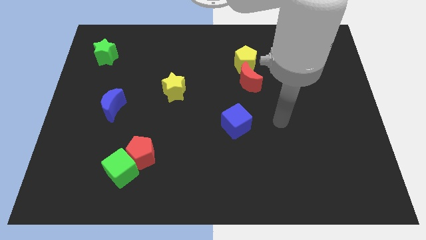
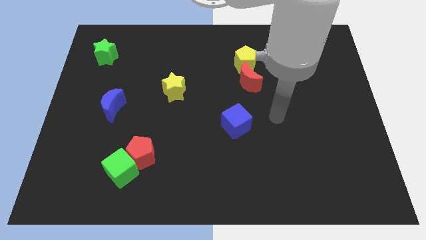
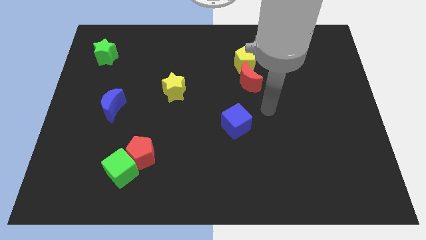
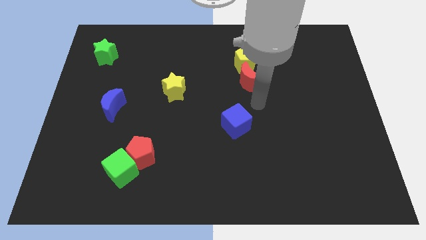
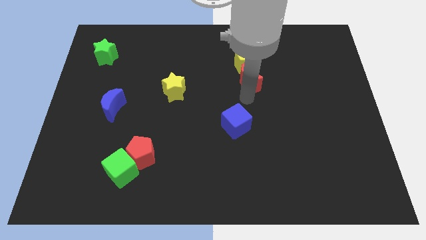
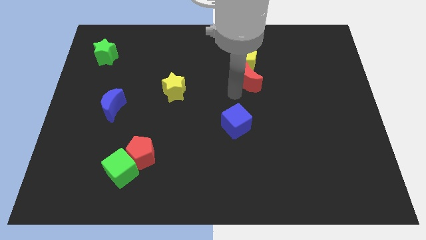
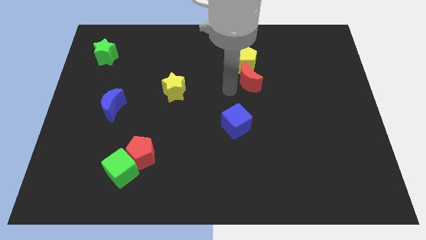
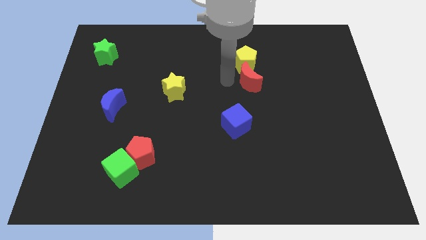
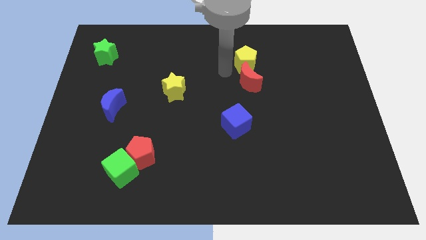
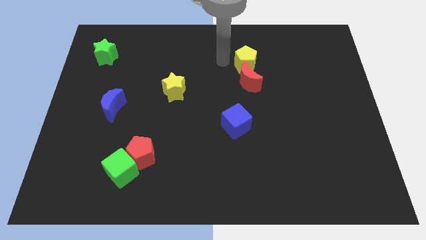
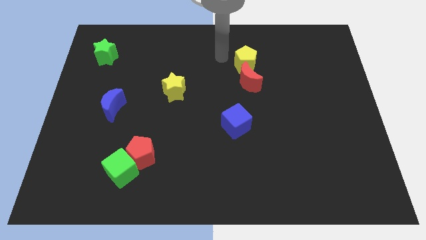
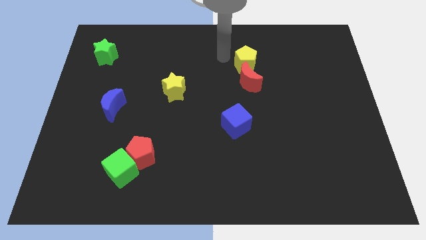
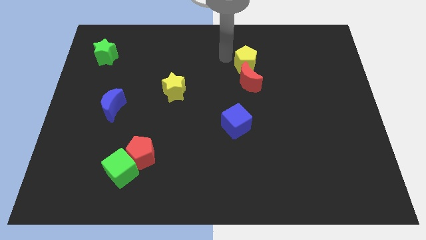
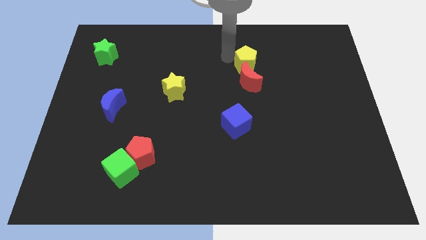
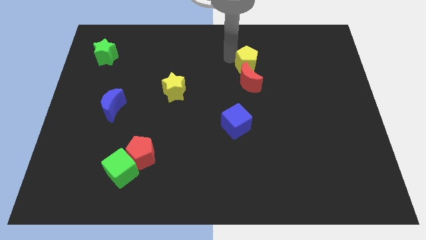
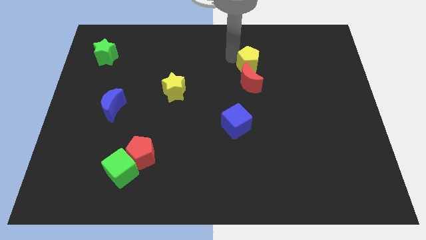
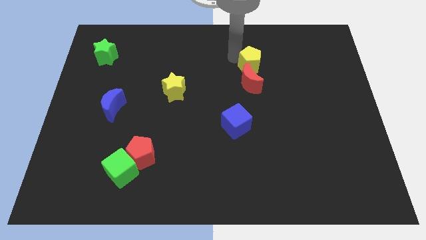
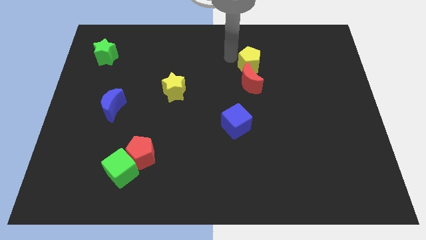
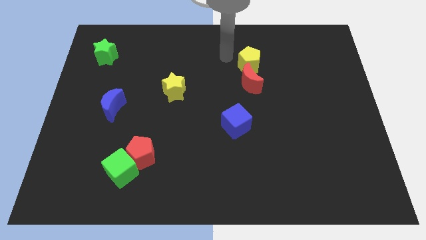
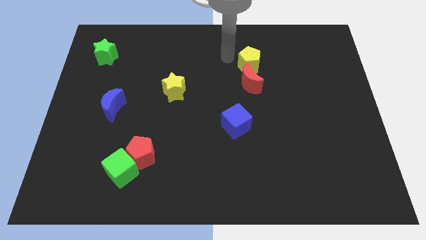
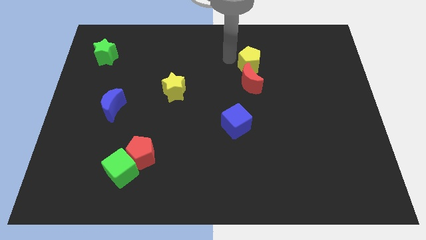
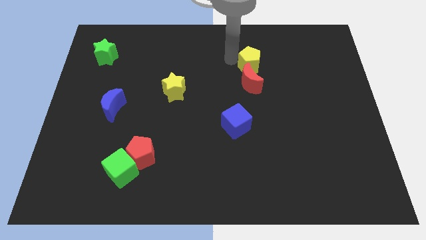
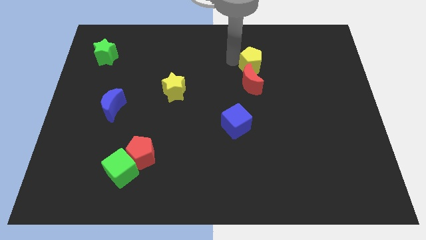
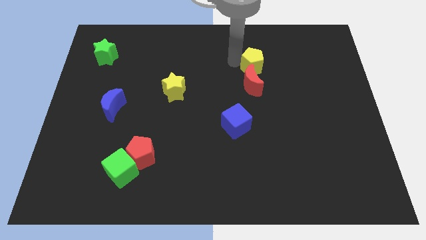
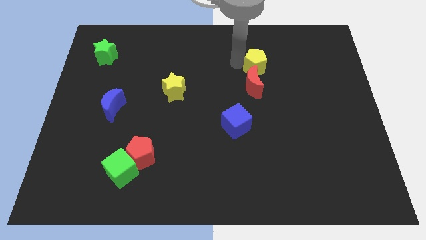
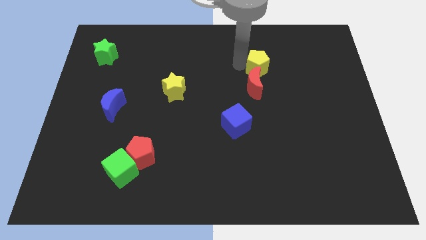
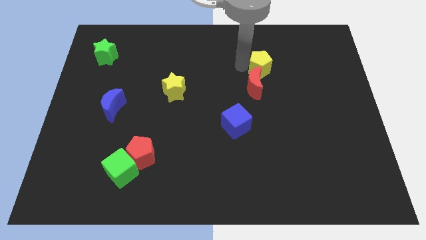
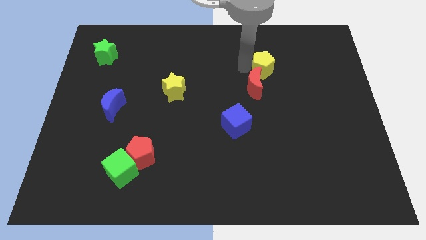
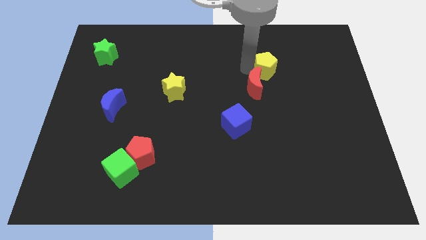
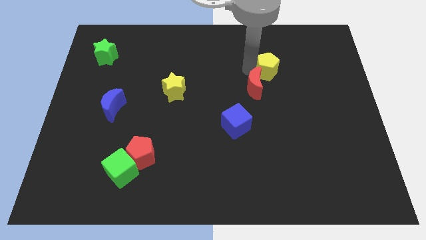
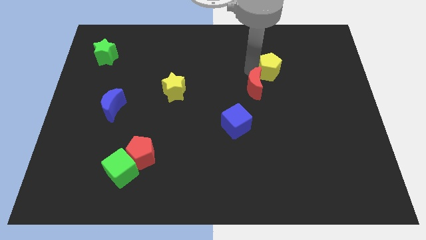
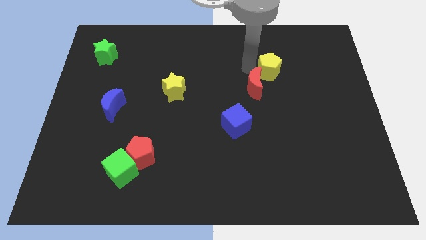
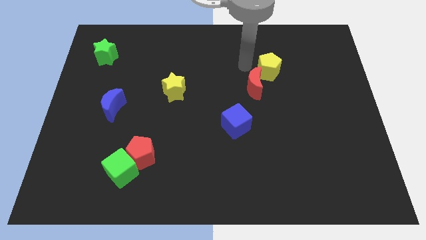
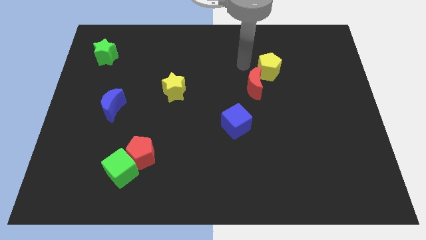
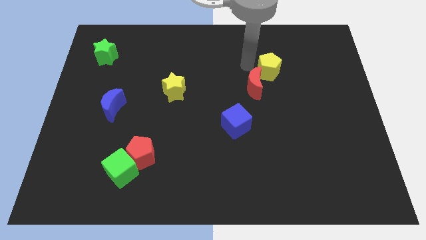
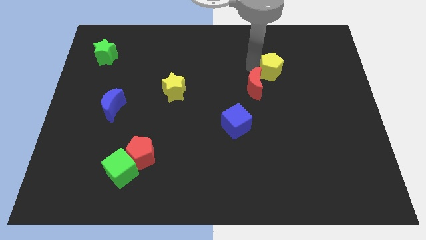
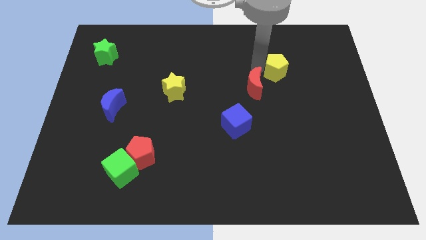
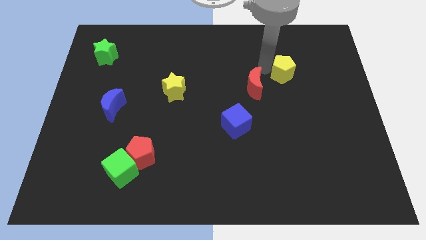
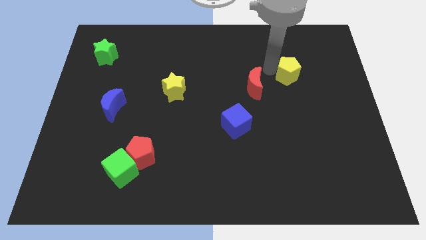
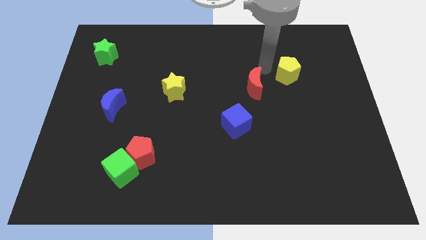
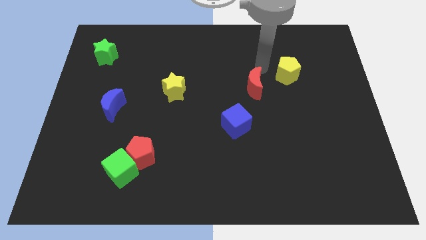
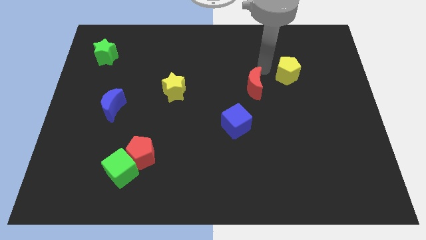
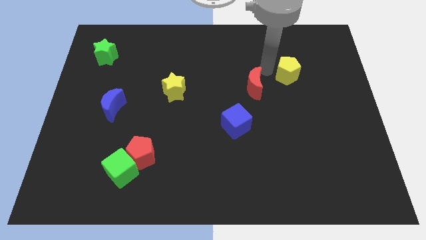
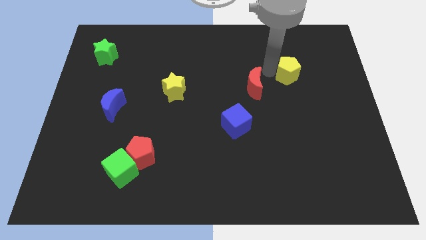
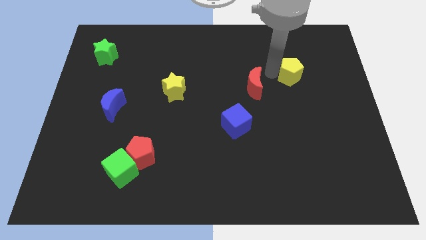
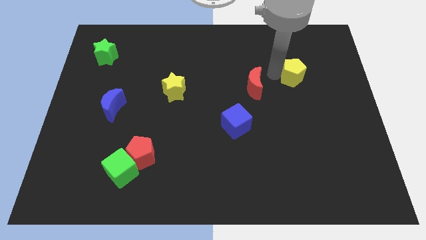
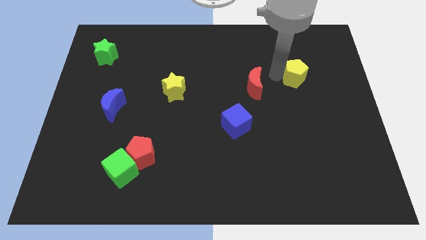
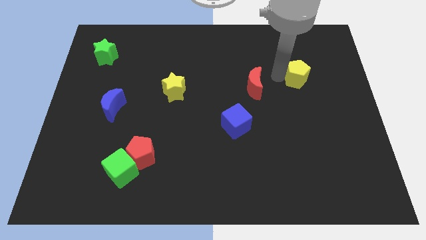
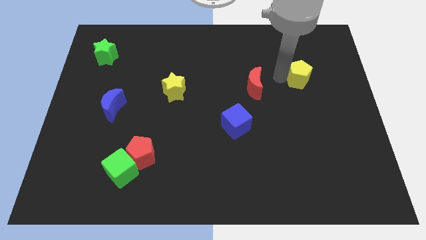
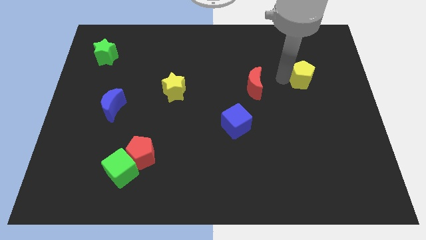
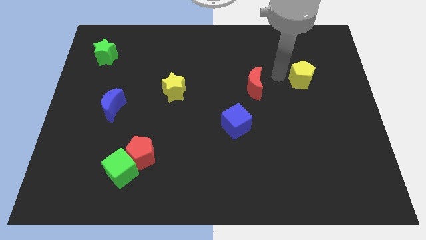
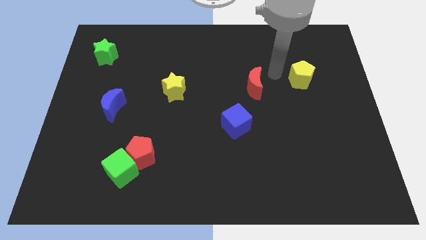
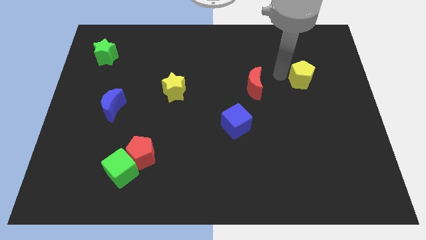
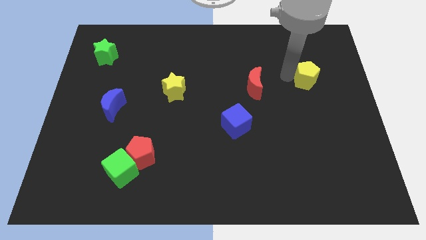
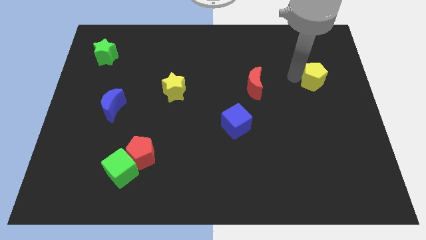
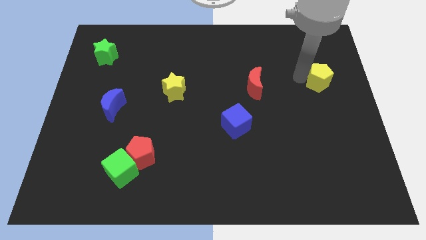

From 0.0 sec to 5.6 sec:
put the yellow pentagon to the center right
